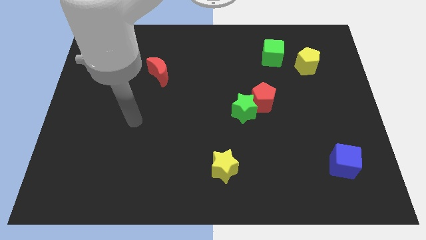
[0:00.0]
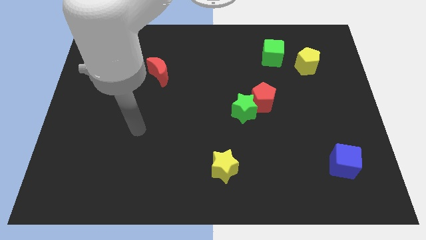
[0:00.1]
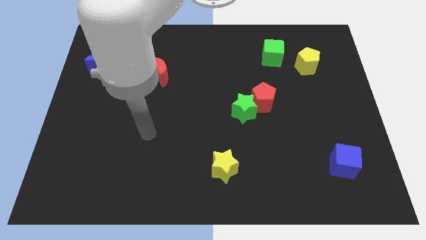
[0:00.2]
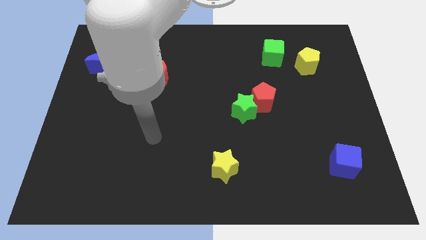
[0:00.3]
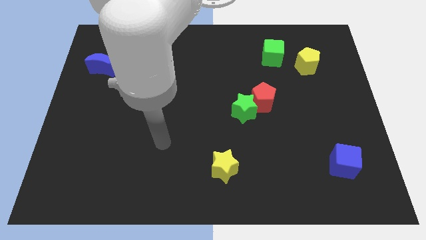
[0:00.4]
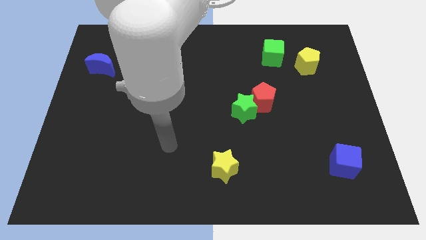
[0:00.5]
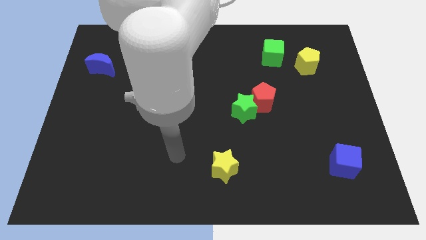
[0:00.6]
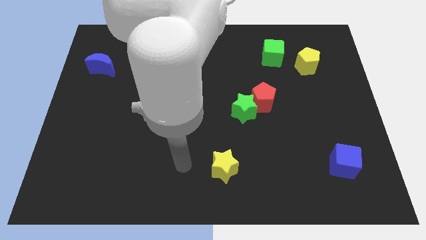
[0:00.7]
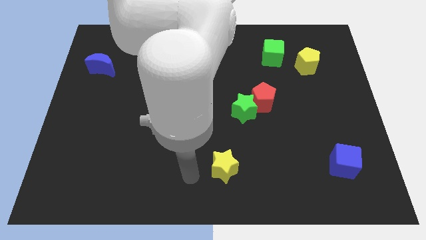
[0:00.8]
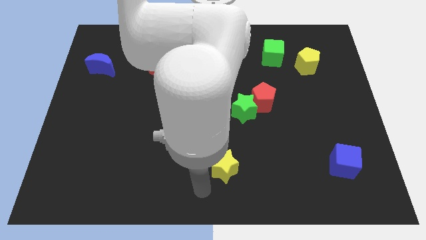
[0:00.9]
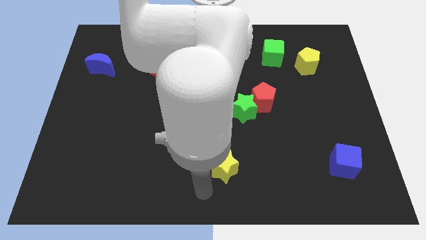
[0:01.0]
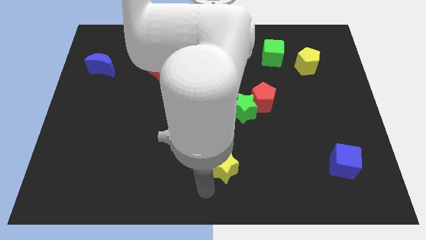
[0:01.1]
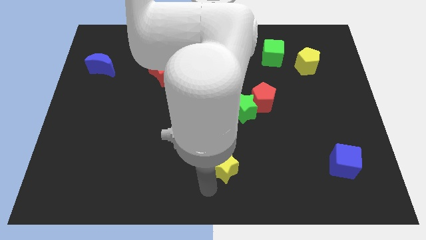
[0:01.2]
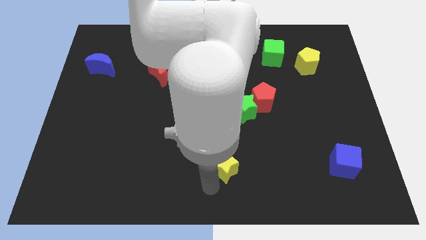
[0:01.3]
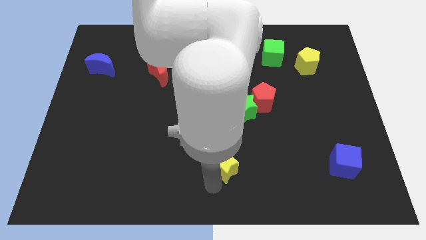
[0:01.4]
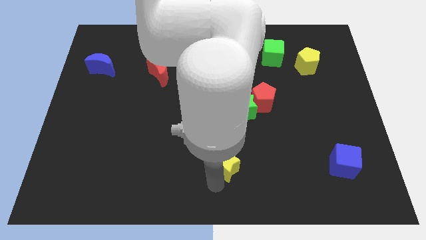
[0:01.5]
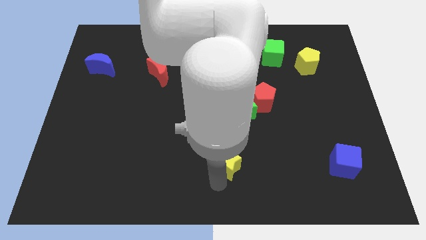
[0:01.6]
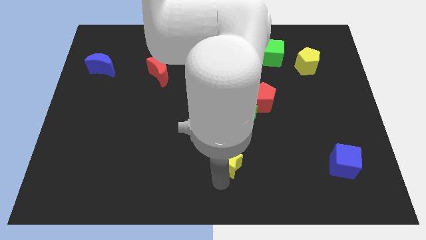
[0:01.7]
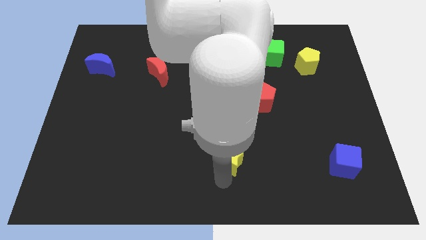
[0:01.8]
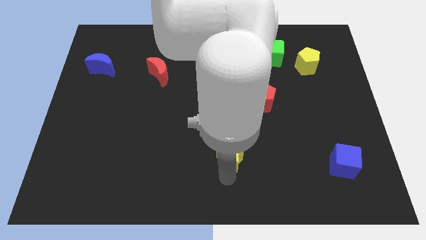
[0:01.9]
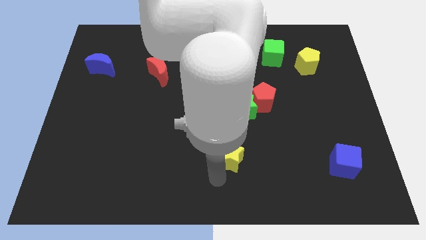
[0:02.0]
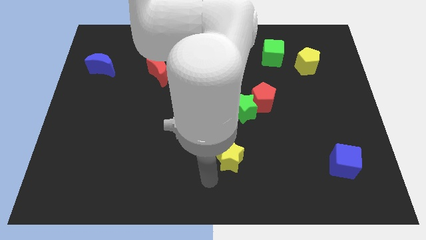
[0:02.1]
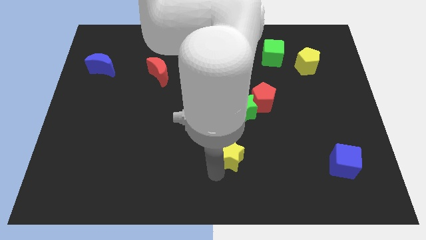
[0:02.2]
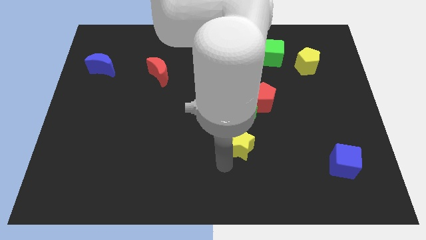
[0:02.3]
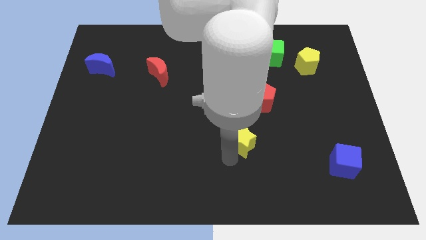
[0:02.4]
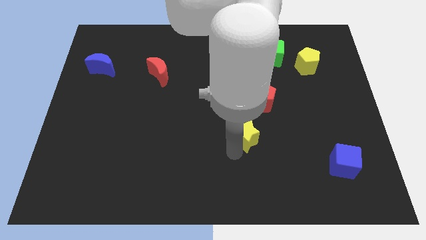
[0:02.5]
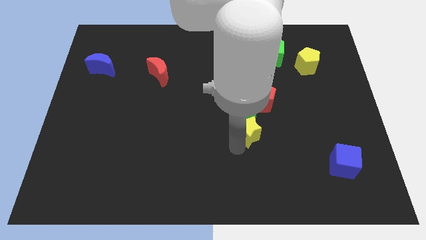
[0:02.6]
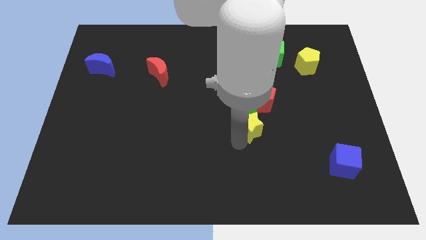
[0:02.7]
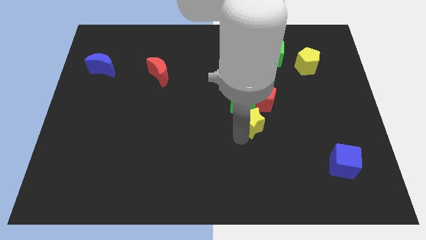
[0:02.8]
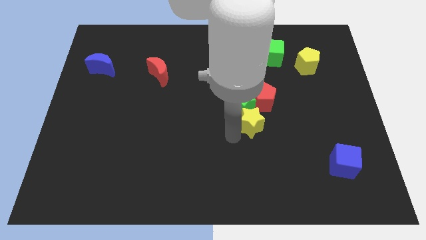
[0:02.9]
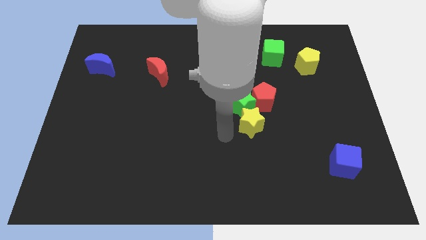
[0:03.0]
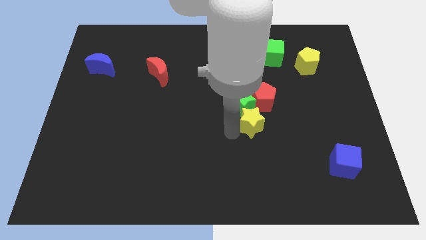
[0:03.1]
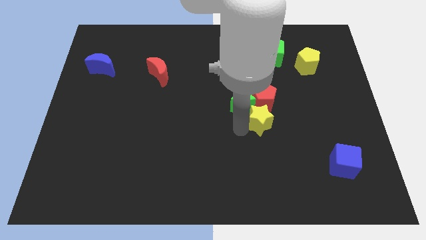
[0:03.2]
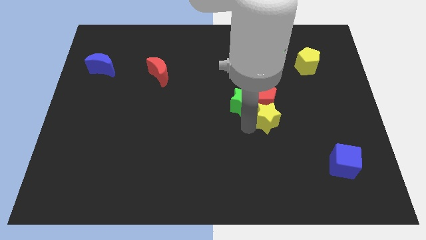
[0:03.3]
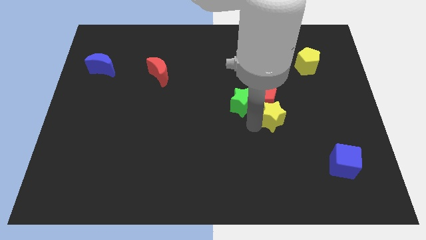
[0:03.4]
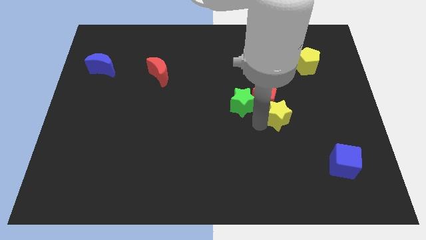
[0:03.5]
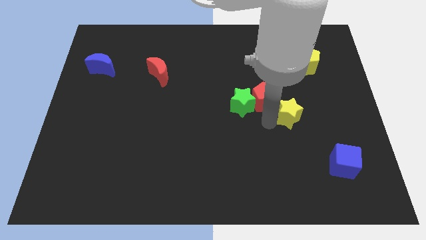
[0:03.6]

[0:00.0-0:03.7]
push the yellow star upwards and then right

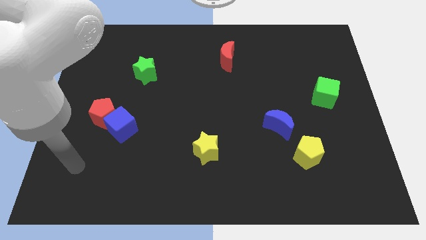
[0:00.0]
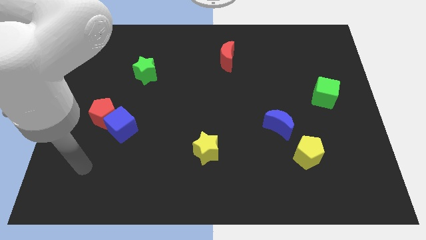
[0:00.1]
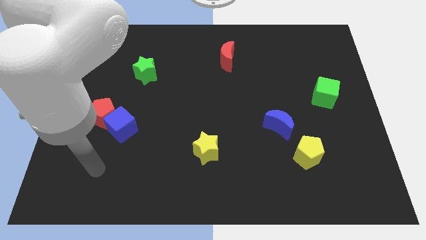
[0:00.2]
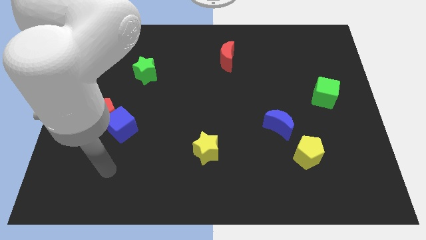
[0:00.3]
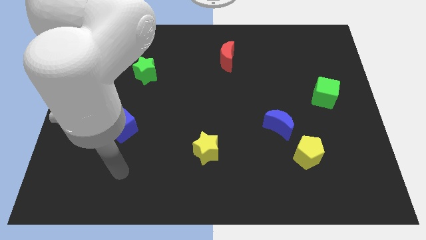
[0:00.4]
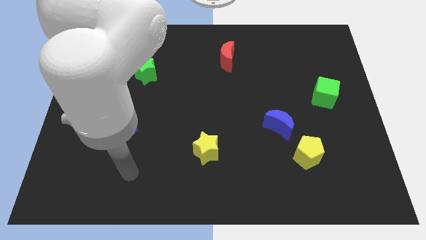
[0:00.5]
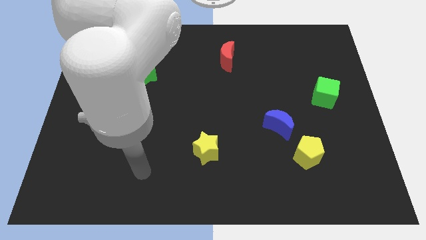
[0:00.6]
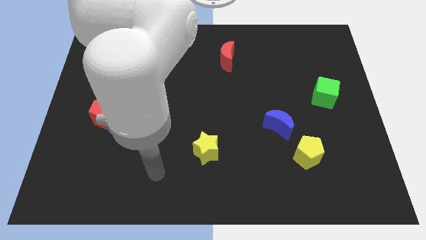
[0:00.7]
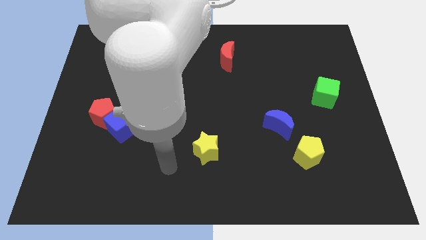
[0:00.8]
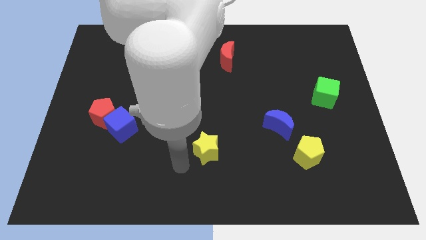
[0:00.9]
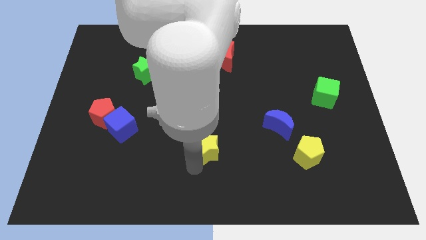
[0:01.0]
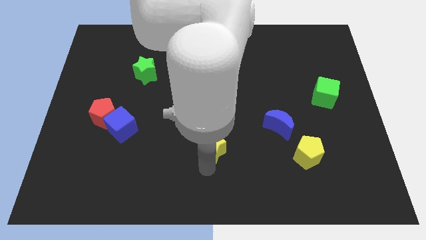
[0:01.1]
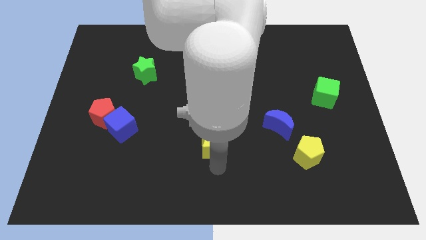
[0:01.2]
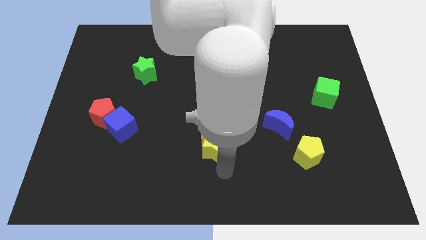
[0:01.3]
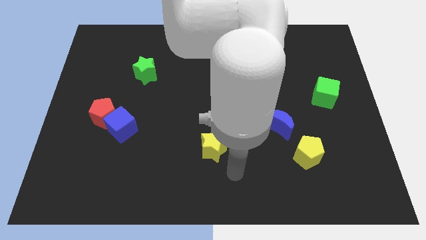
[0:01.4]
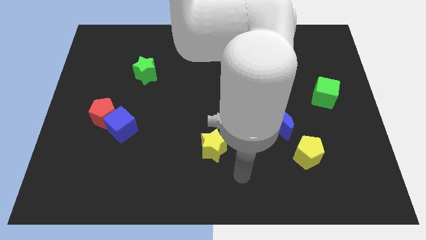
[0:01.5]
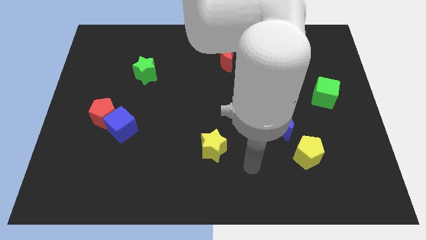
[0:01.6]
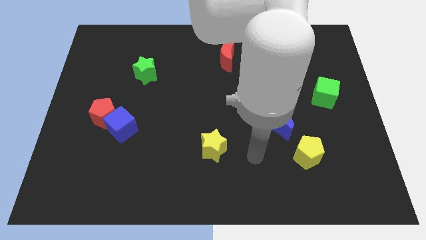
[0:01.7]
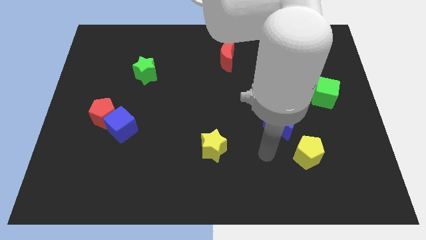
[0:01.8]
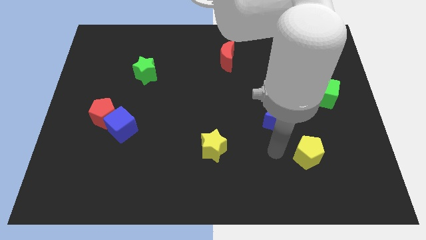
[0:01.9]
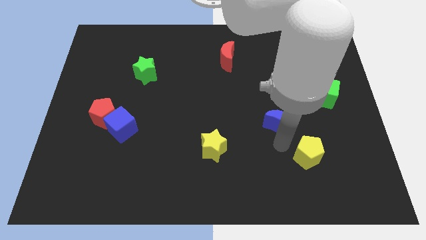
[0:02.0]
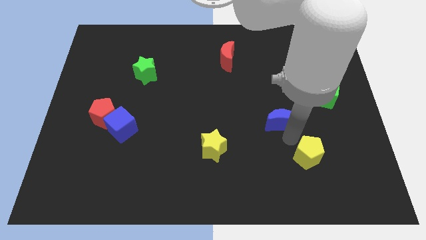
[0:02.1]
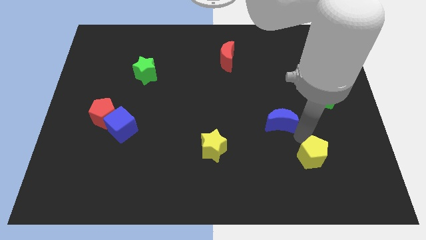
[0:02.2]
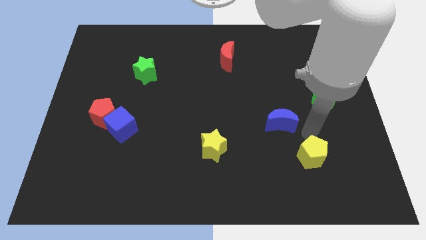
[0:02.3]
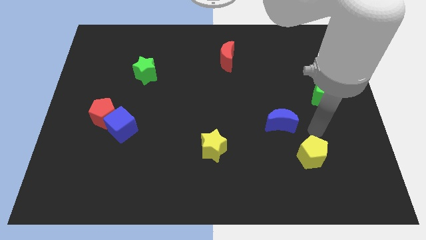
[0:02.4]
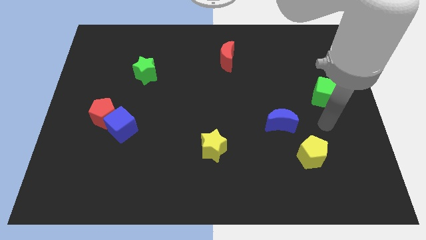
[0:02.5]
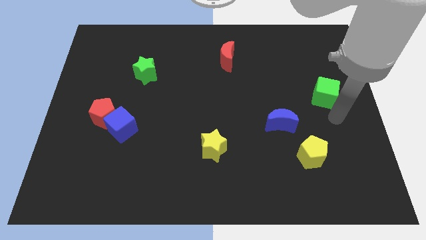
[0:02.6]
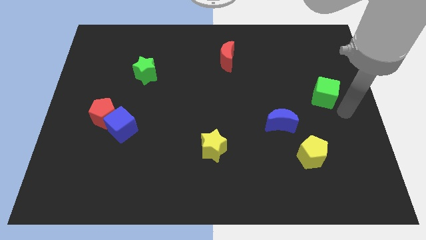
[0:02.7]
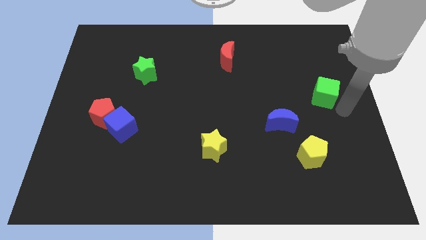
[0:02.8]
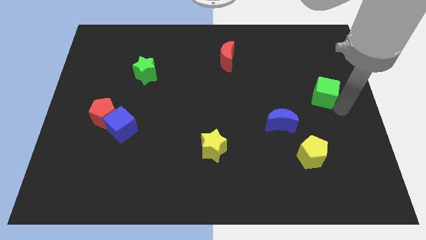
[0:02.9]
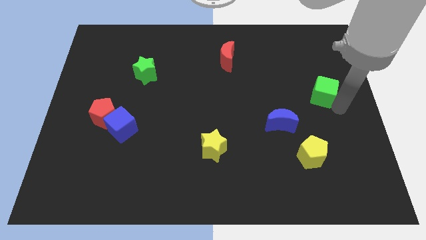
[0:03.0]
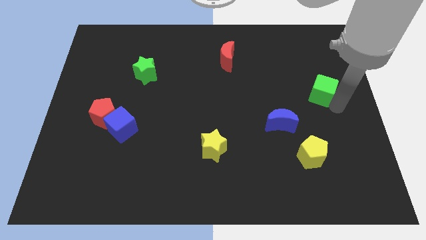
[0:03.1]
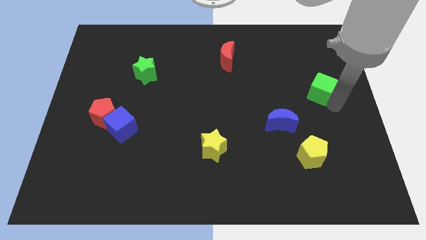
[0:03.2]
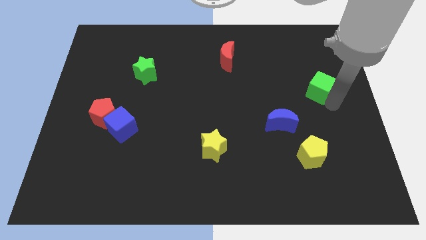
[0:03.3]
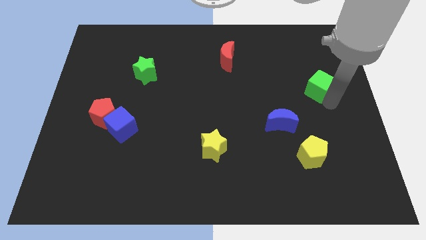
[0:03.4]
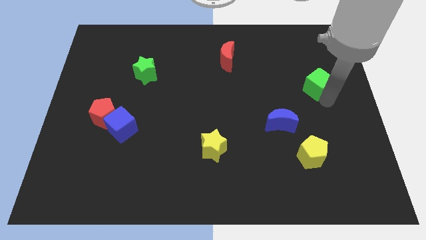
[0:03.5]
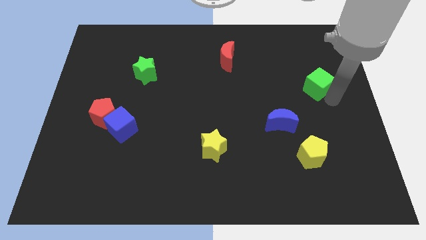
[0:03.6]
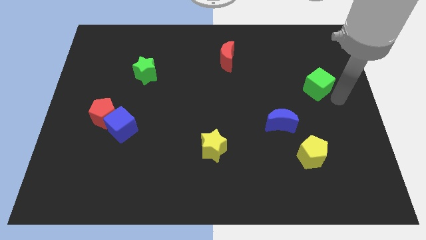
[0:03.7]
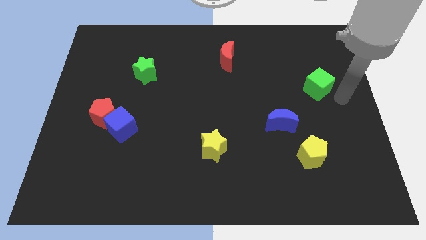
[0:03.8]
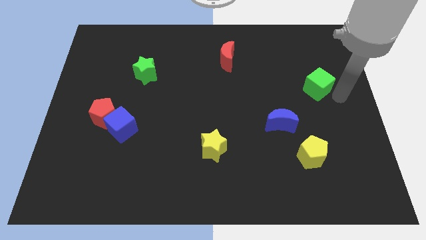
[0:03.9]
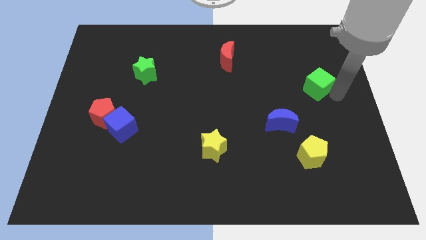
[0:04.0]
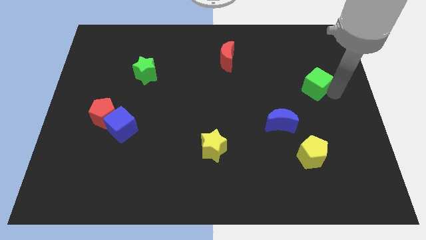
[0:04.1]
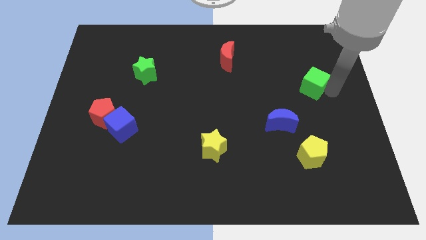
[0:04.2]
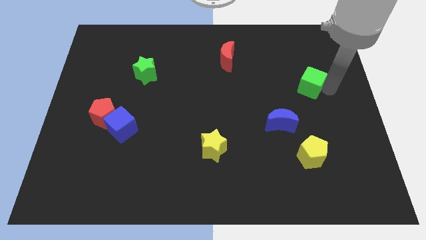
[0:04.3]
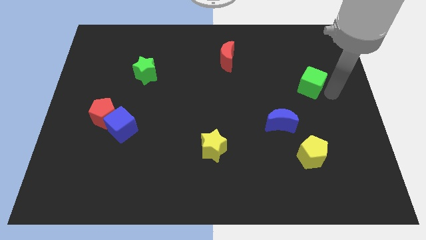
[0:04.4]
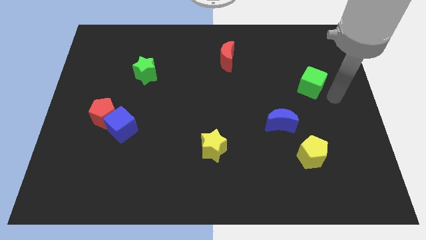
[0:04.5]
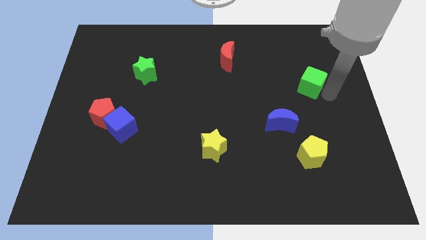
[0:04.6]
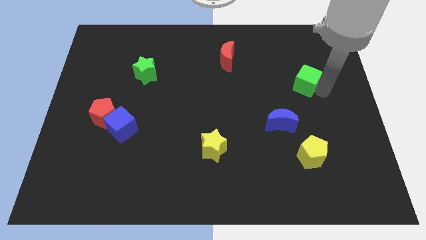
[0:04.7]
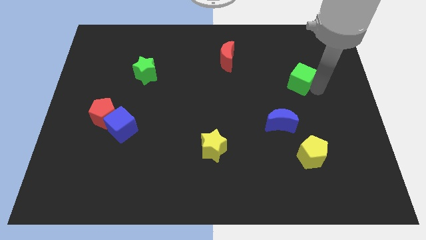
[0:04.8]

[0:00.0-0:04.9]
slightly move the green cube diagonally up and left
